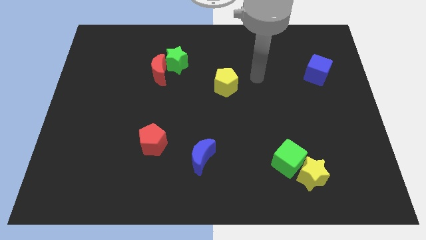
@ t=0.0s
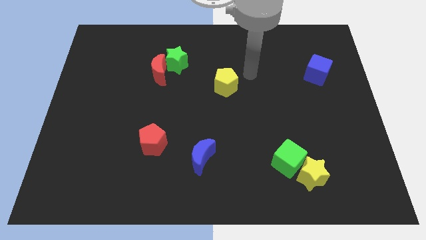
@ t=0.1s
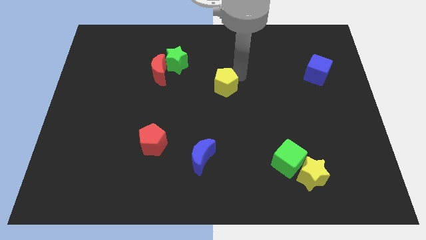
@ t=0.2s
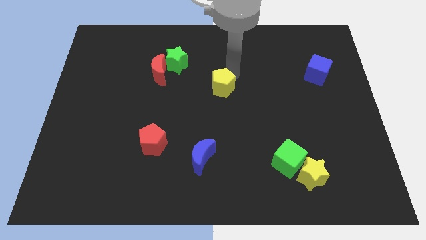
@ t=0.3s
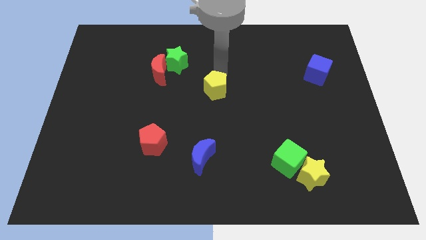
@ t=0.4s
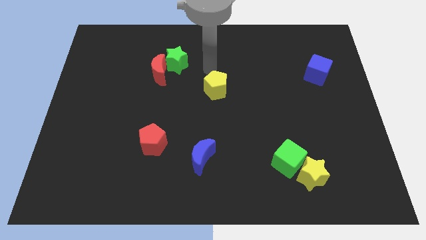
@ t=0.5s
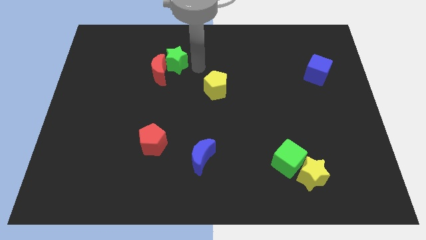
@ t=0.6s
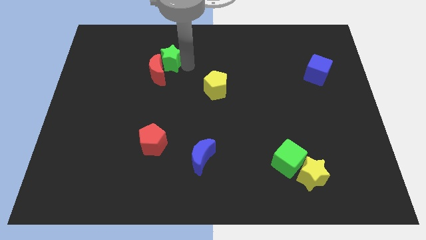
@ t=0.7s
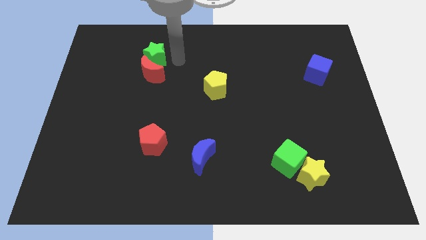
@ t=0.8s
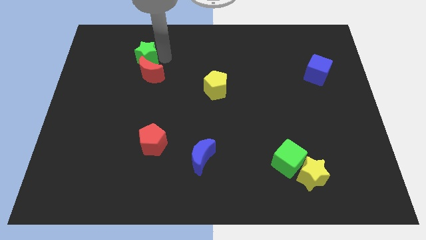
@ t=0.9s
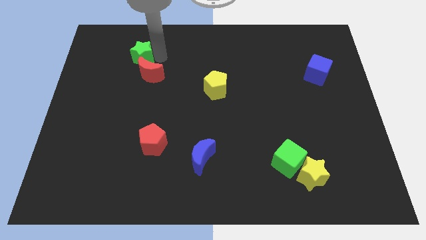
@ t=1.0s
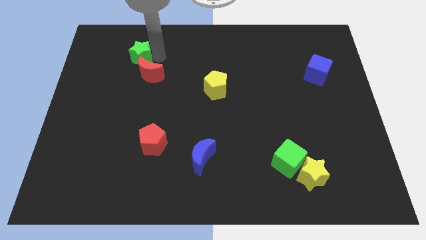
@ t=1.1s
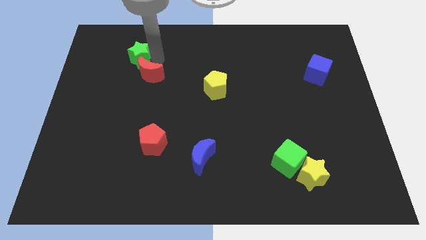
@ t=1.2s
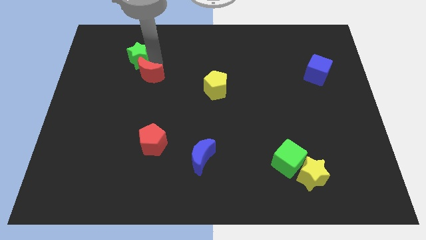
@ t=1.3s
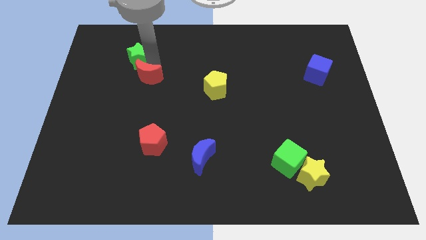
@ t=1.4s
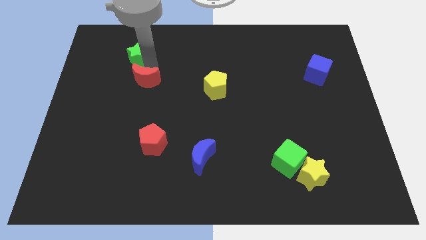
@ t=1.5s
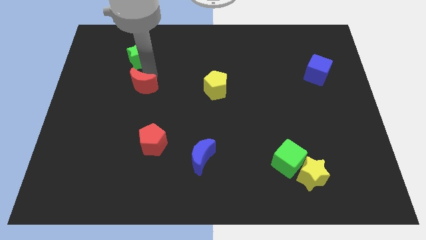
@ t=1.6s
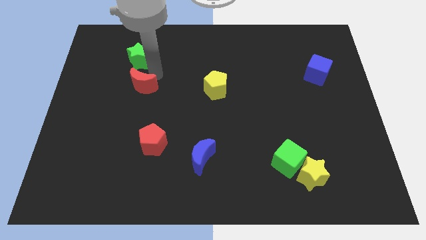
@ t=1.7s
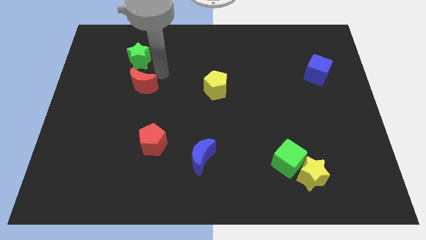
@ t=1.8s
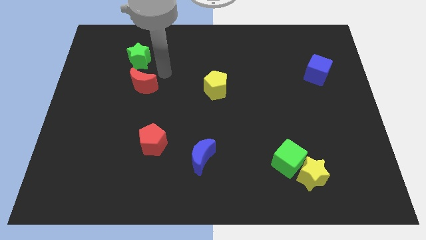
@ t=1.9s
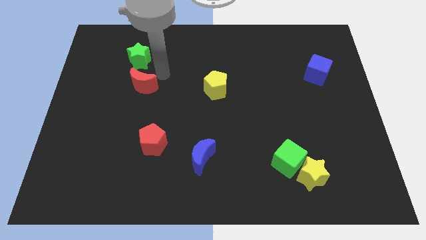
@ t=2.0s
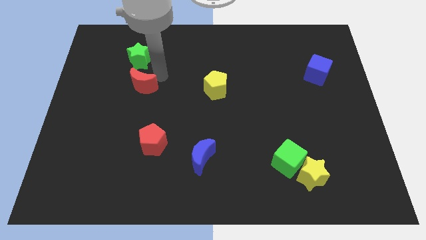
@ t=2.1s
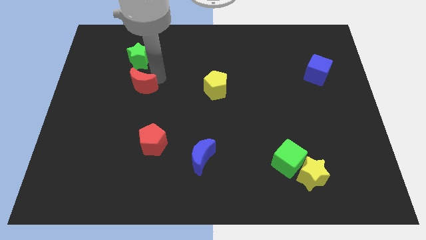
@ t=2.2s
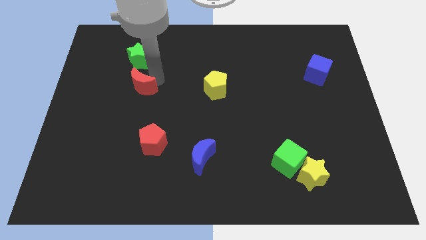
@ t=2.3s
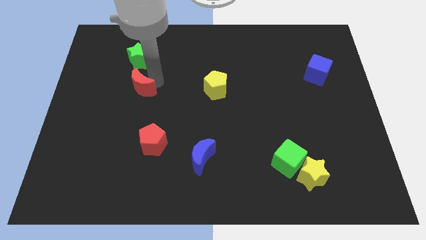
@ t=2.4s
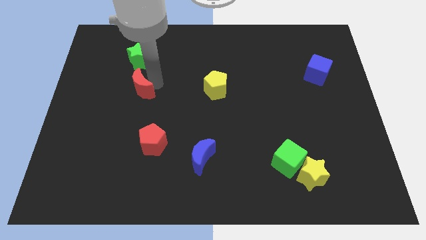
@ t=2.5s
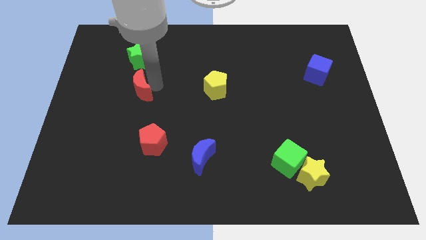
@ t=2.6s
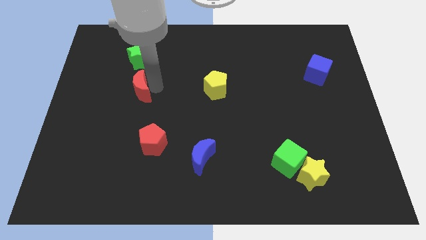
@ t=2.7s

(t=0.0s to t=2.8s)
slightly move the red moon down and to the left

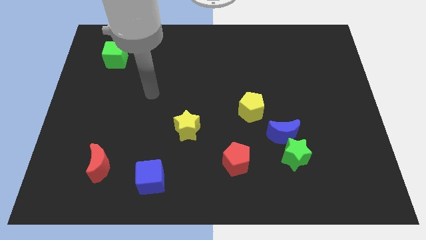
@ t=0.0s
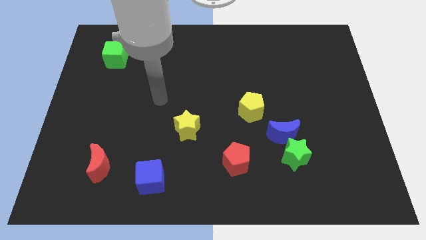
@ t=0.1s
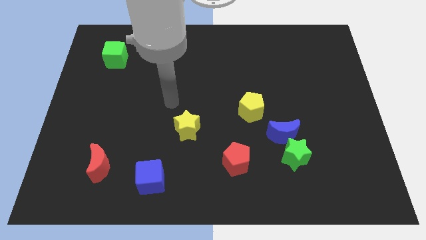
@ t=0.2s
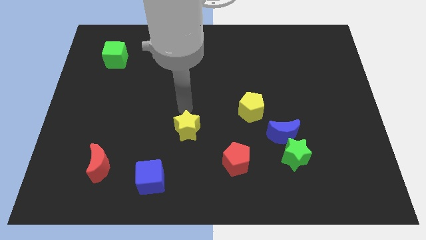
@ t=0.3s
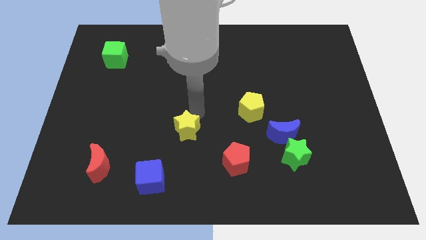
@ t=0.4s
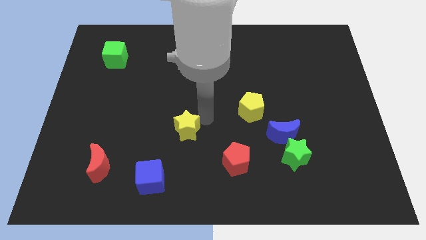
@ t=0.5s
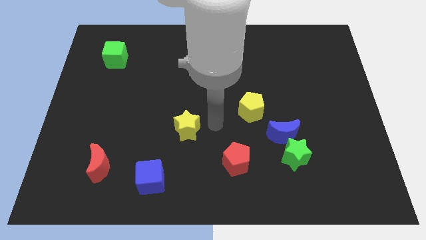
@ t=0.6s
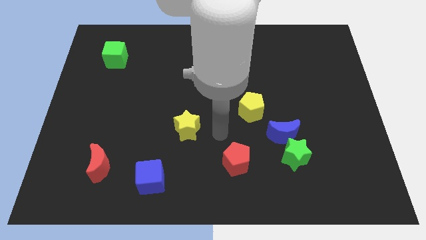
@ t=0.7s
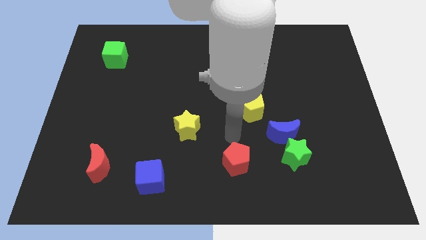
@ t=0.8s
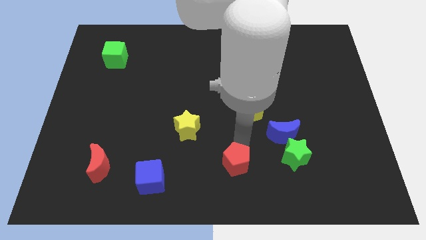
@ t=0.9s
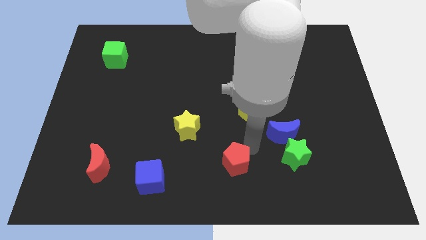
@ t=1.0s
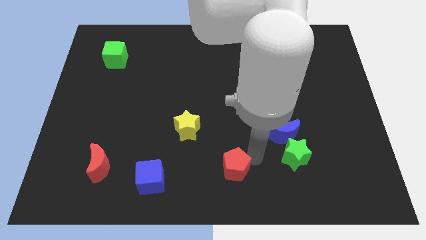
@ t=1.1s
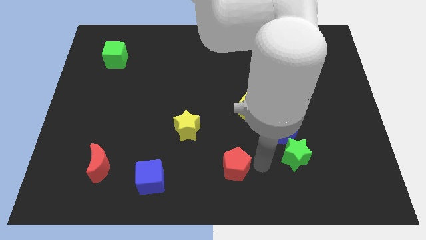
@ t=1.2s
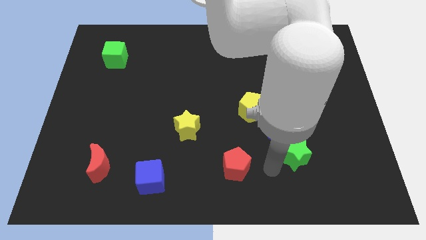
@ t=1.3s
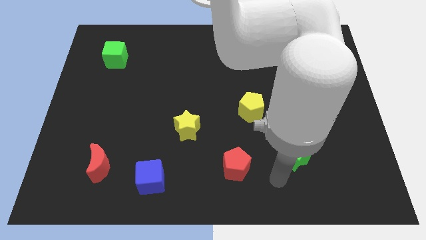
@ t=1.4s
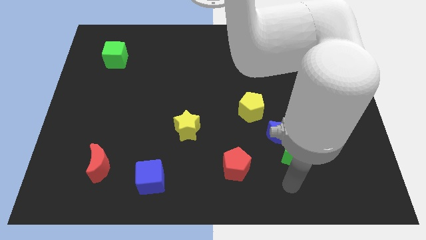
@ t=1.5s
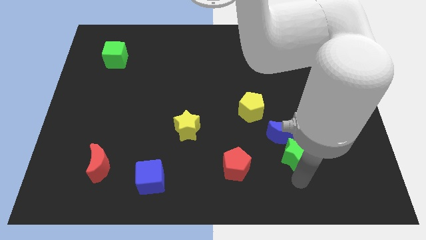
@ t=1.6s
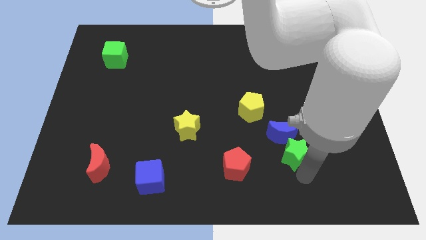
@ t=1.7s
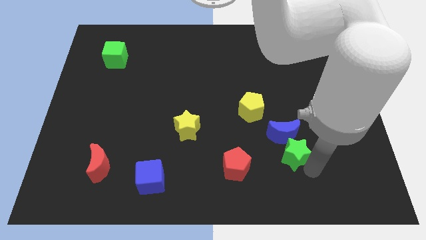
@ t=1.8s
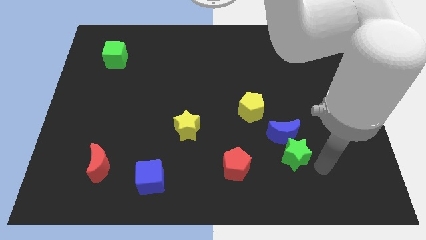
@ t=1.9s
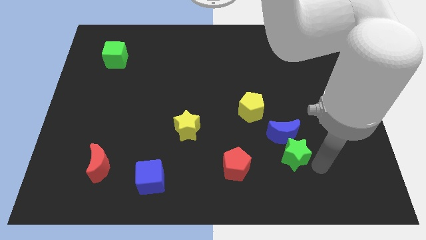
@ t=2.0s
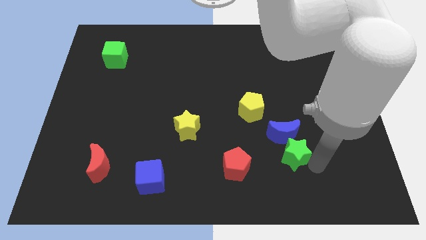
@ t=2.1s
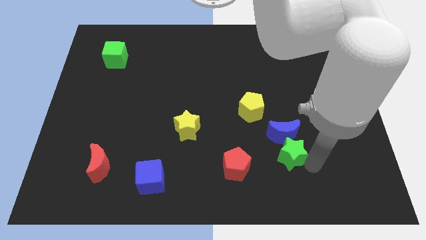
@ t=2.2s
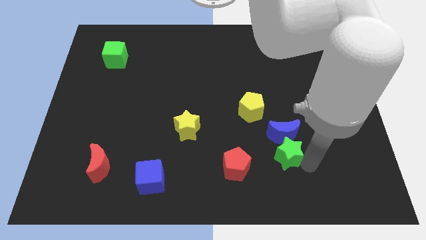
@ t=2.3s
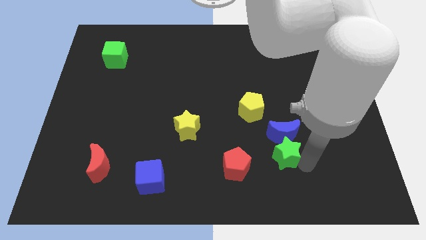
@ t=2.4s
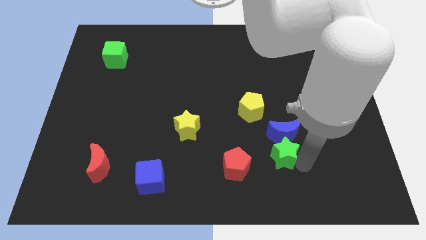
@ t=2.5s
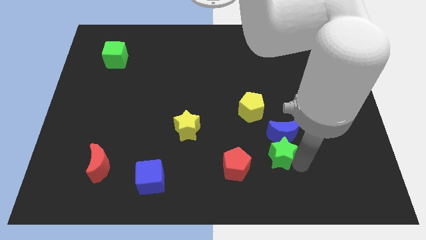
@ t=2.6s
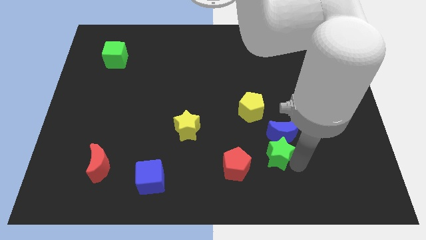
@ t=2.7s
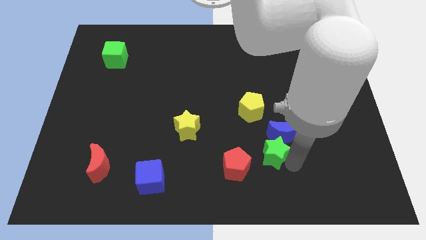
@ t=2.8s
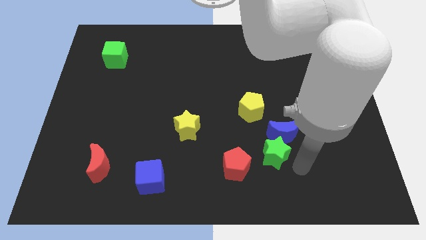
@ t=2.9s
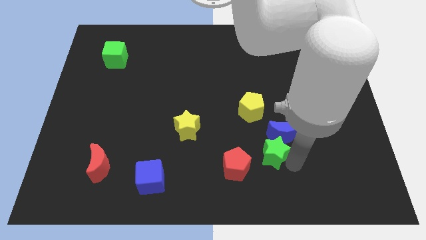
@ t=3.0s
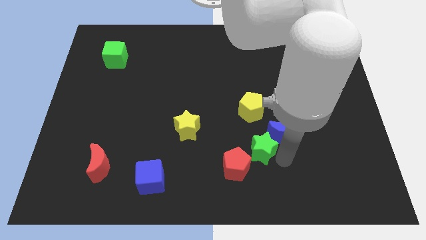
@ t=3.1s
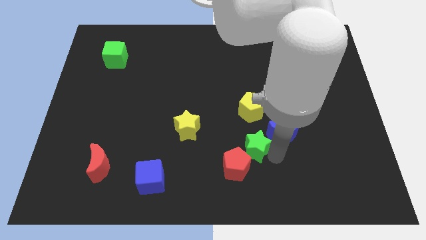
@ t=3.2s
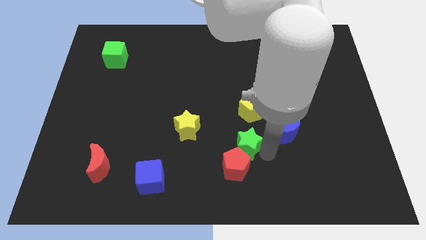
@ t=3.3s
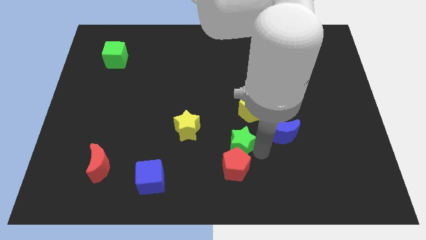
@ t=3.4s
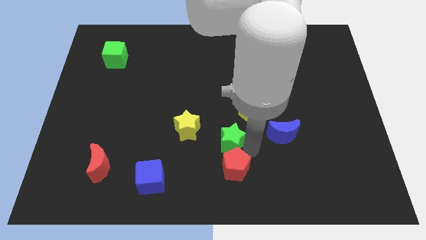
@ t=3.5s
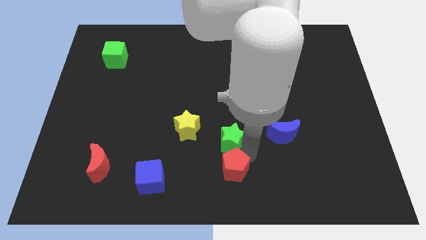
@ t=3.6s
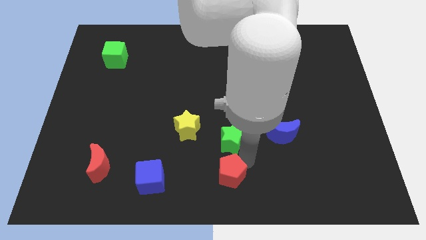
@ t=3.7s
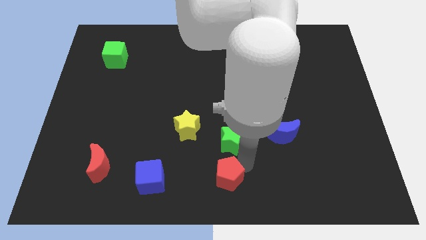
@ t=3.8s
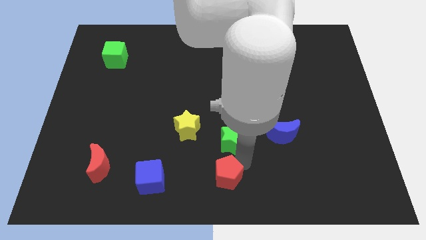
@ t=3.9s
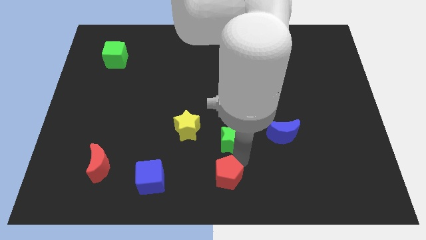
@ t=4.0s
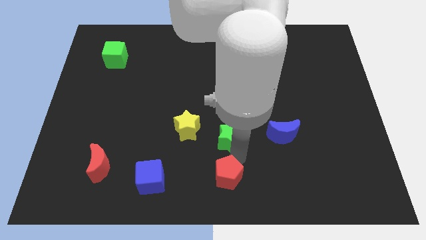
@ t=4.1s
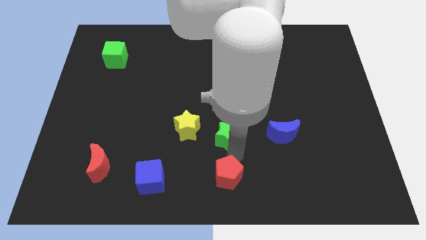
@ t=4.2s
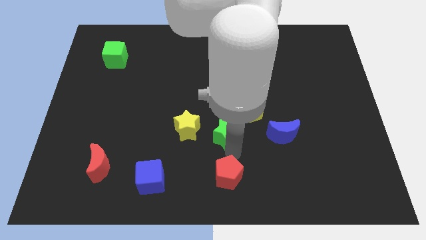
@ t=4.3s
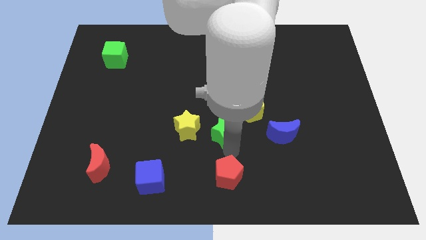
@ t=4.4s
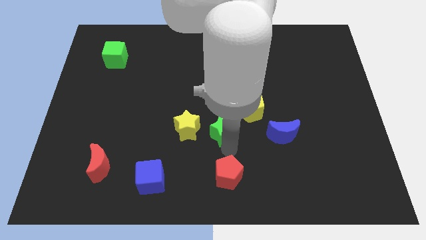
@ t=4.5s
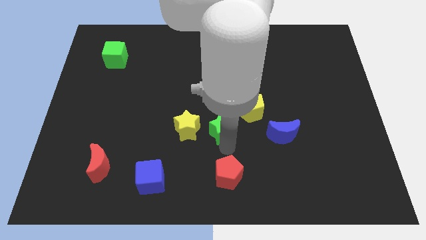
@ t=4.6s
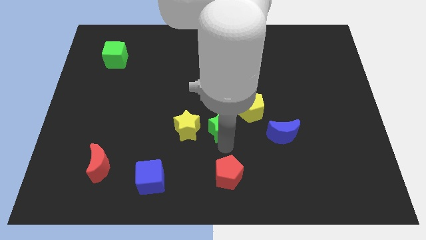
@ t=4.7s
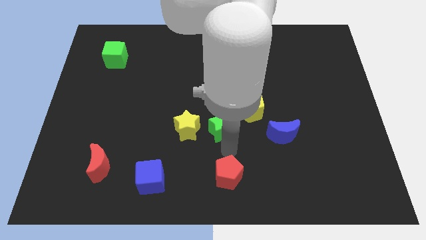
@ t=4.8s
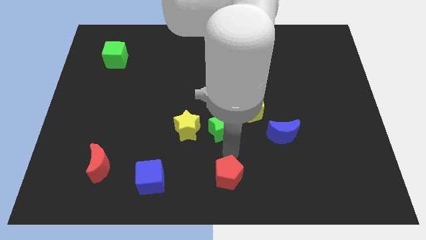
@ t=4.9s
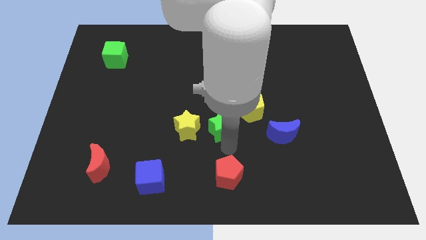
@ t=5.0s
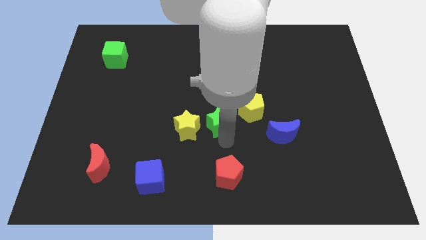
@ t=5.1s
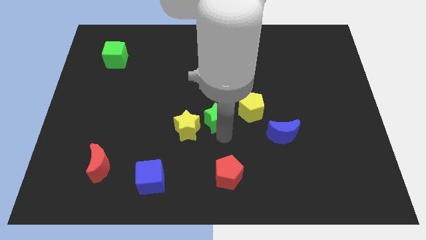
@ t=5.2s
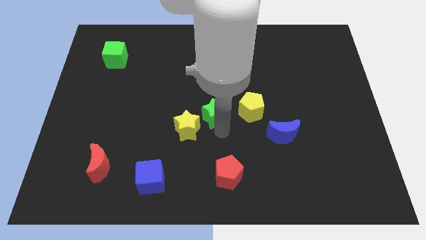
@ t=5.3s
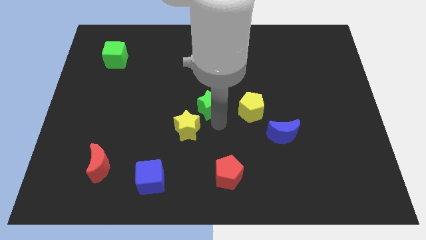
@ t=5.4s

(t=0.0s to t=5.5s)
move the green star up and to the left diagonally
